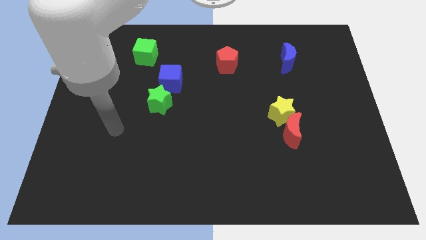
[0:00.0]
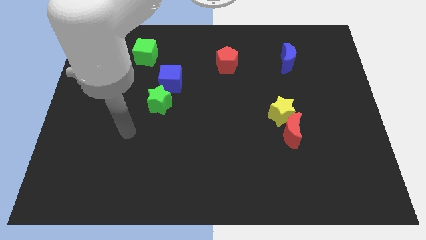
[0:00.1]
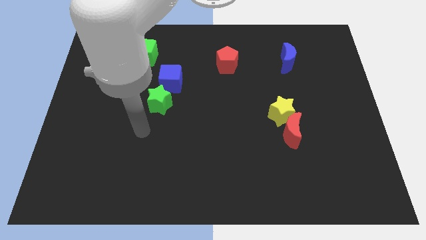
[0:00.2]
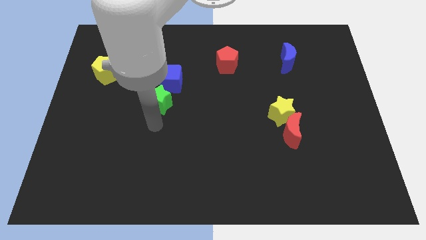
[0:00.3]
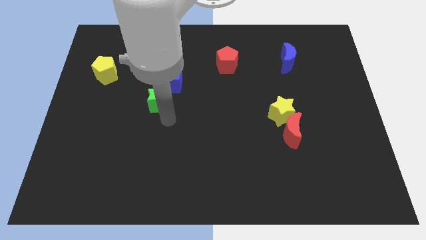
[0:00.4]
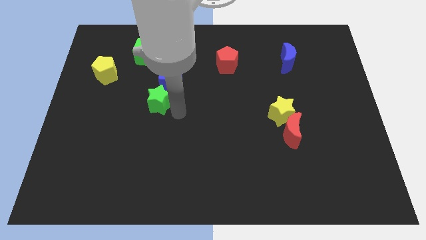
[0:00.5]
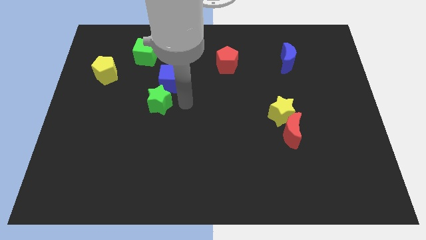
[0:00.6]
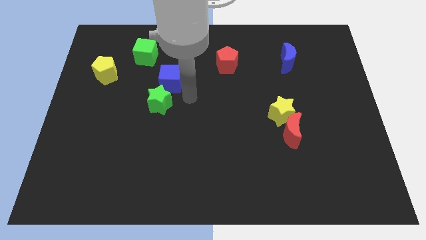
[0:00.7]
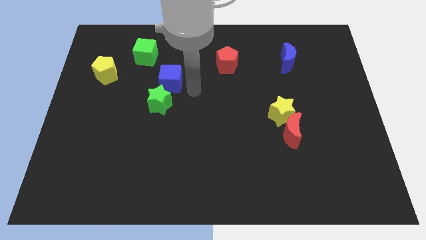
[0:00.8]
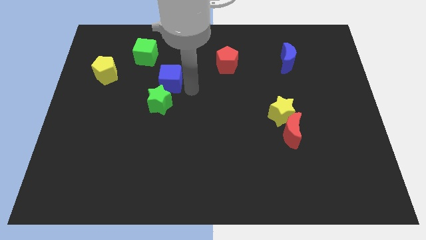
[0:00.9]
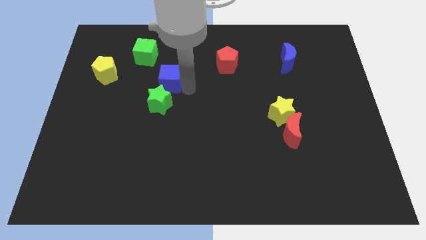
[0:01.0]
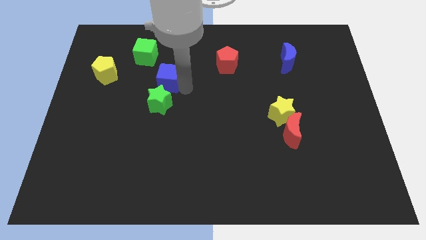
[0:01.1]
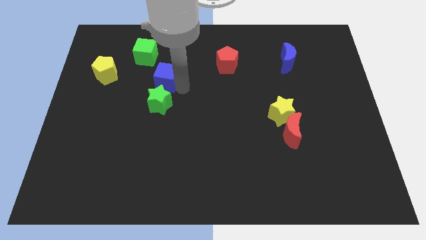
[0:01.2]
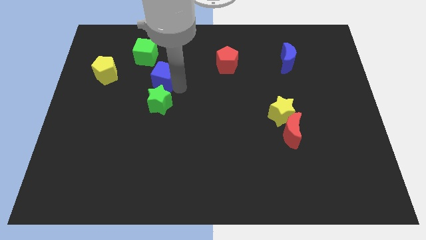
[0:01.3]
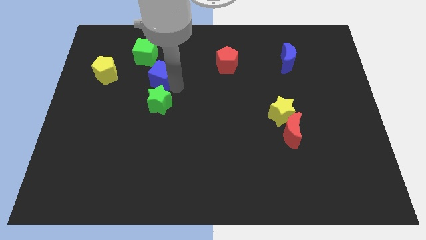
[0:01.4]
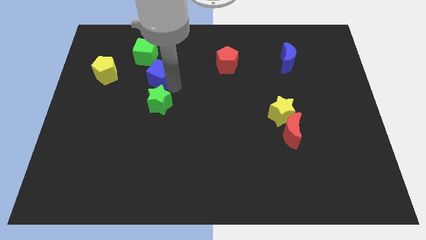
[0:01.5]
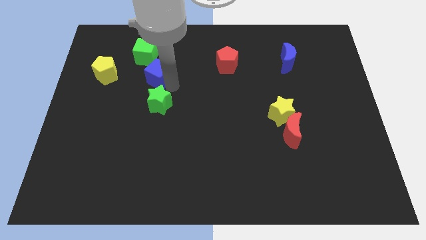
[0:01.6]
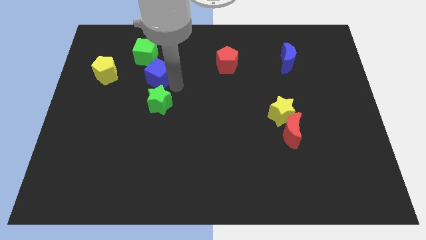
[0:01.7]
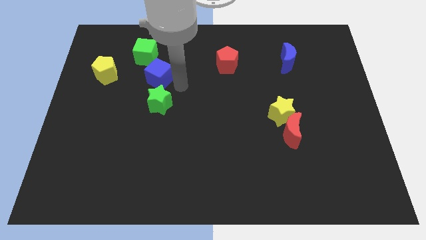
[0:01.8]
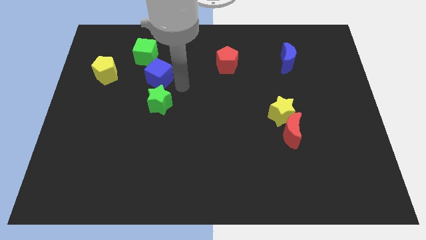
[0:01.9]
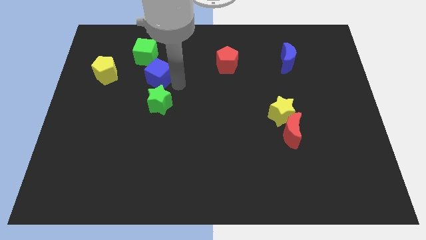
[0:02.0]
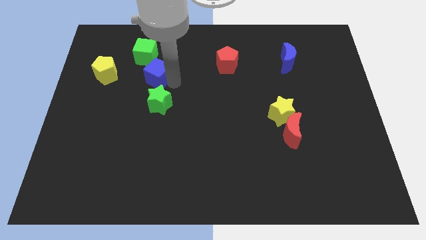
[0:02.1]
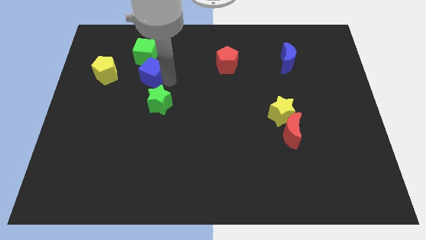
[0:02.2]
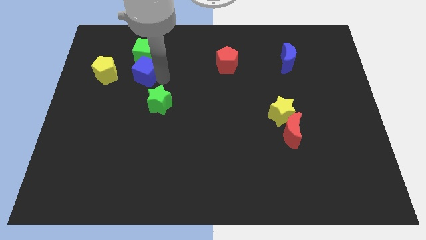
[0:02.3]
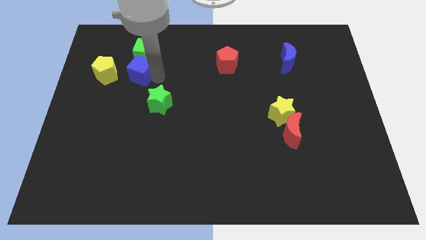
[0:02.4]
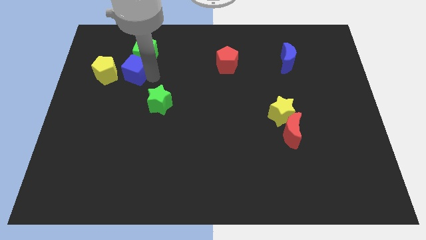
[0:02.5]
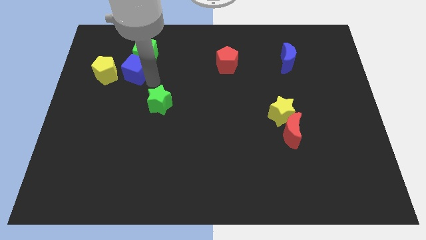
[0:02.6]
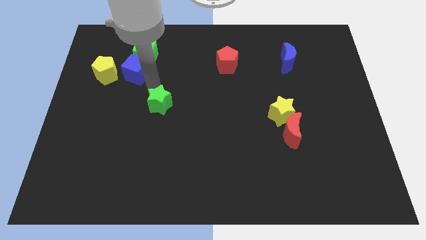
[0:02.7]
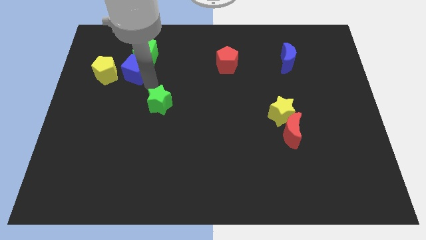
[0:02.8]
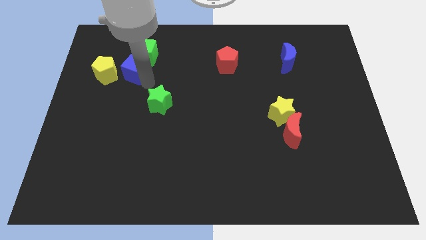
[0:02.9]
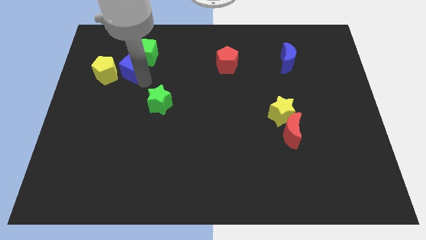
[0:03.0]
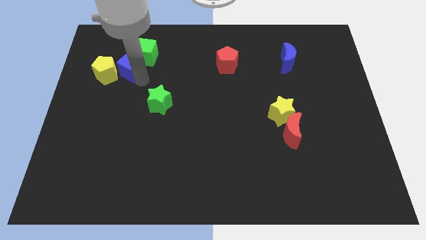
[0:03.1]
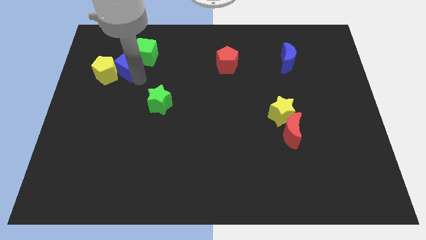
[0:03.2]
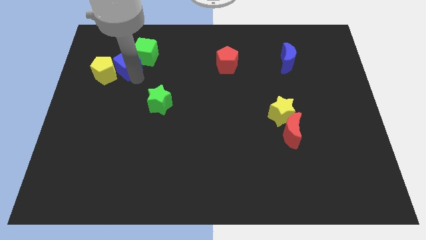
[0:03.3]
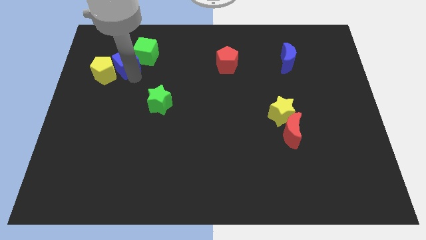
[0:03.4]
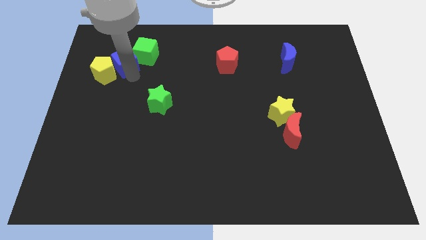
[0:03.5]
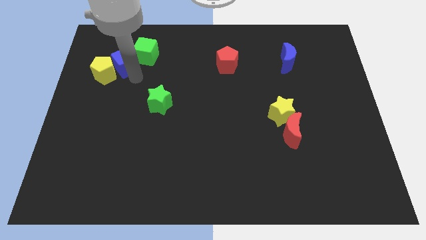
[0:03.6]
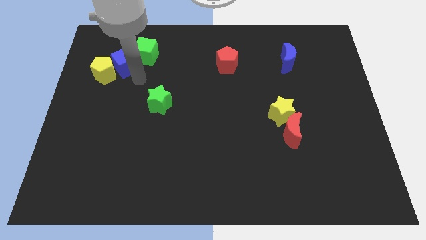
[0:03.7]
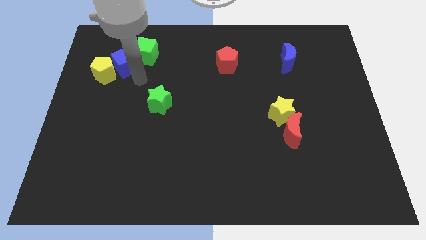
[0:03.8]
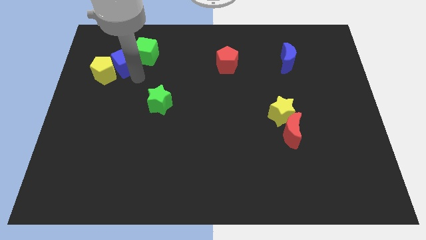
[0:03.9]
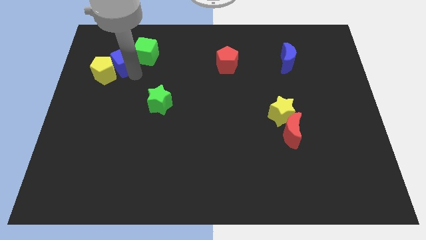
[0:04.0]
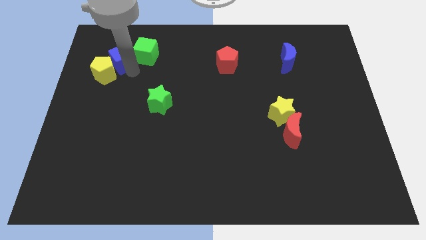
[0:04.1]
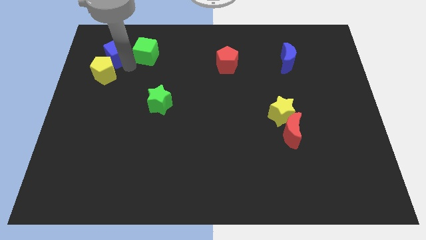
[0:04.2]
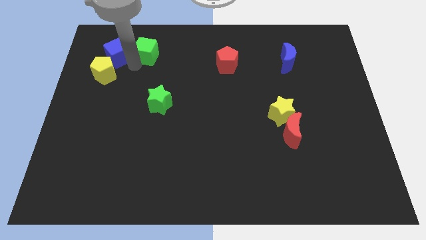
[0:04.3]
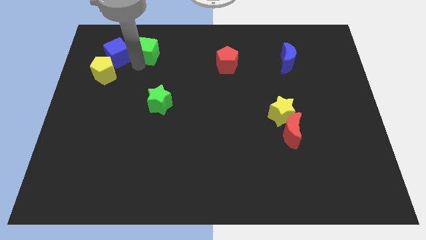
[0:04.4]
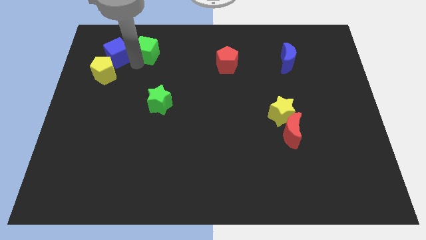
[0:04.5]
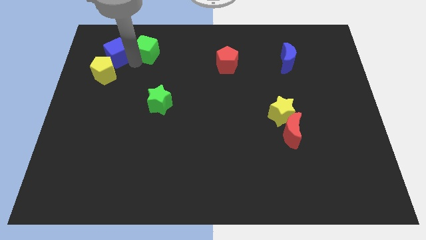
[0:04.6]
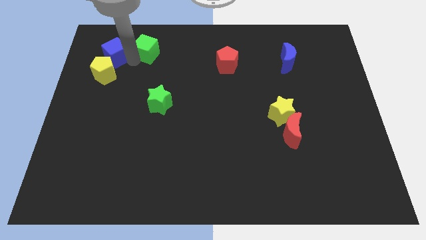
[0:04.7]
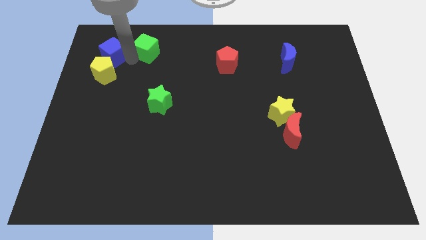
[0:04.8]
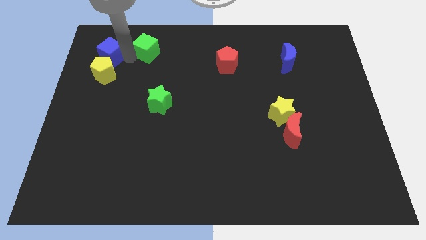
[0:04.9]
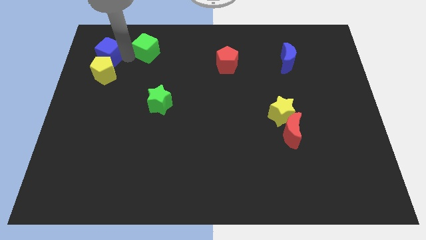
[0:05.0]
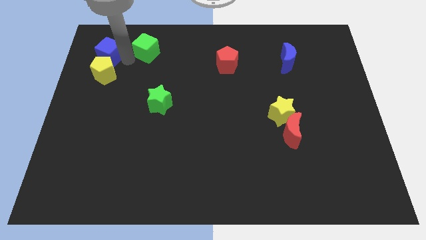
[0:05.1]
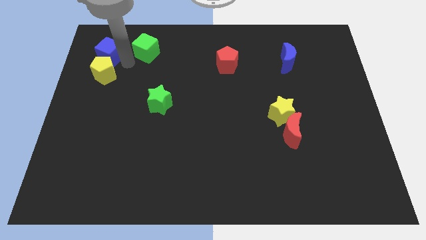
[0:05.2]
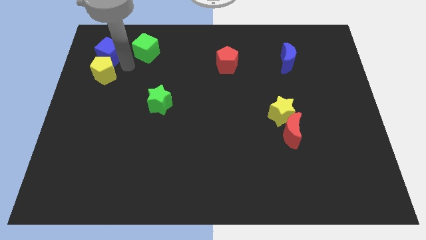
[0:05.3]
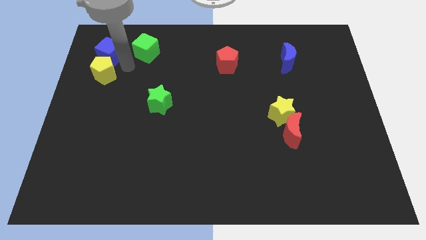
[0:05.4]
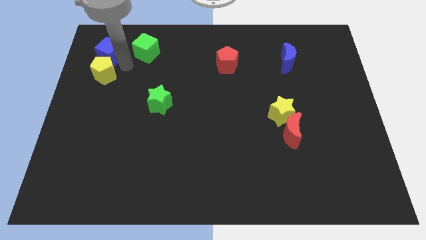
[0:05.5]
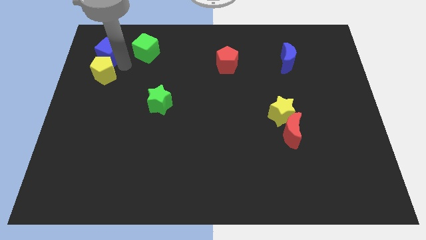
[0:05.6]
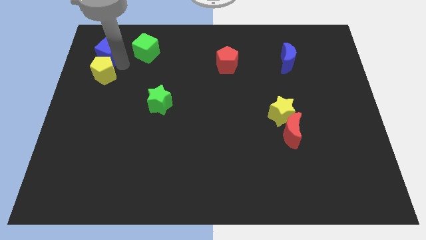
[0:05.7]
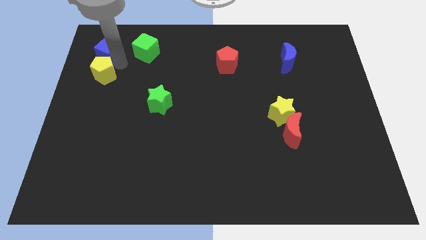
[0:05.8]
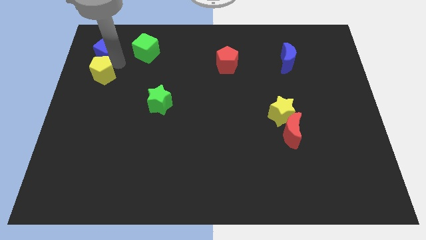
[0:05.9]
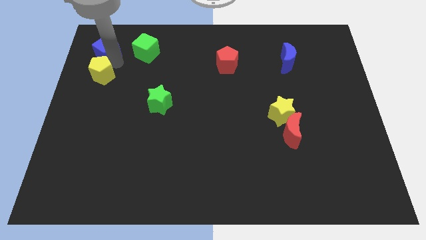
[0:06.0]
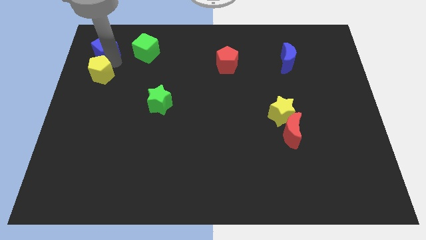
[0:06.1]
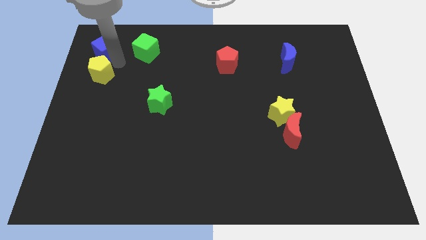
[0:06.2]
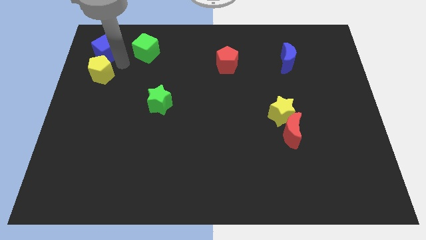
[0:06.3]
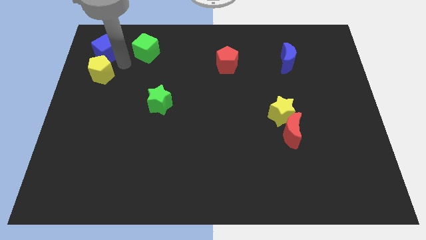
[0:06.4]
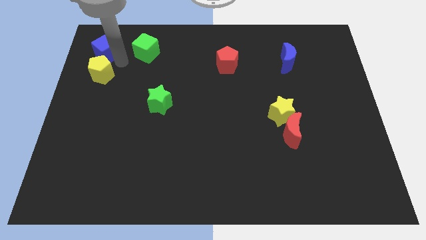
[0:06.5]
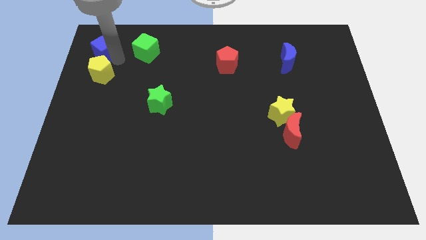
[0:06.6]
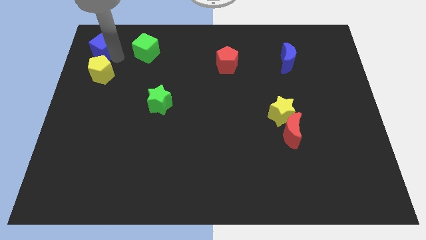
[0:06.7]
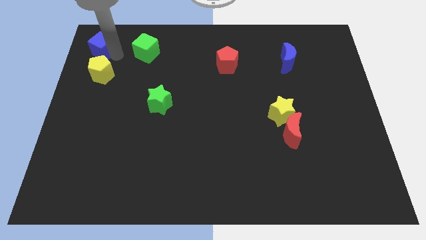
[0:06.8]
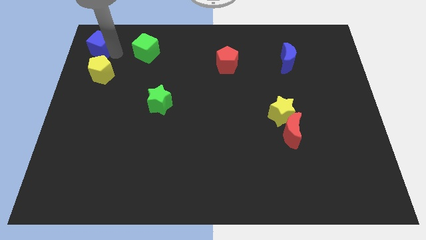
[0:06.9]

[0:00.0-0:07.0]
put the blue cube to the top left corner
